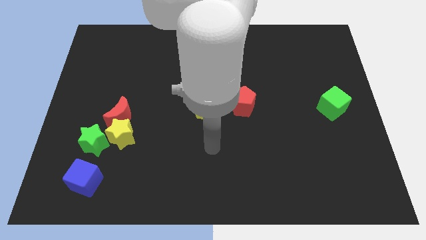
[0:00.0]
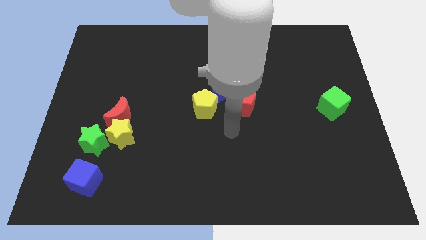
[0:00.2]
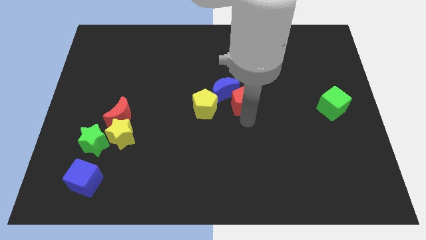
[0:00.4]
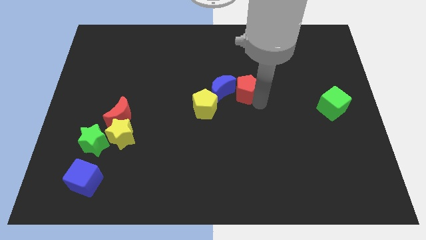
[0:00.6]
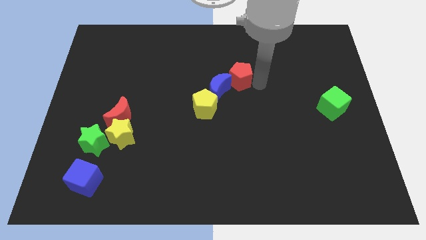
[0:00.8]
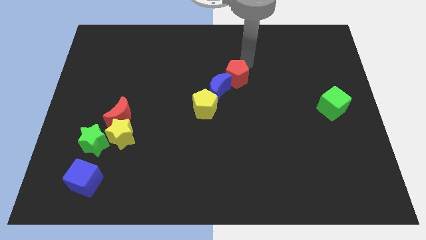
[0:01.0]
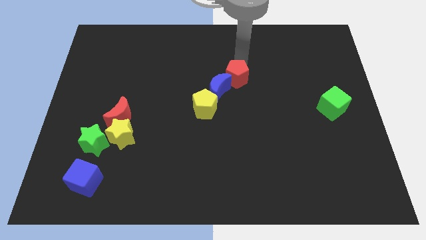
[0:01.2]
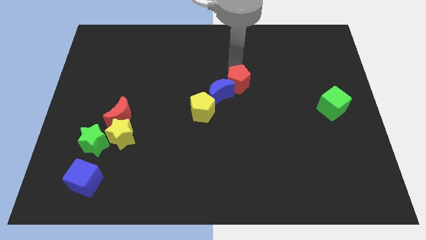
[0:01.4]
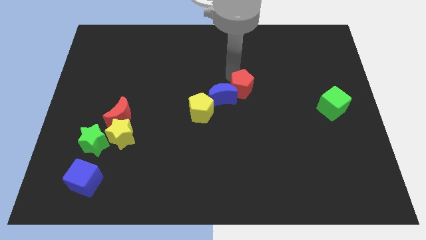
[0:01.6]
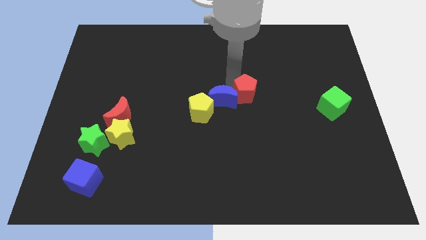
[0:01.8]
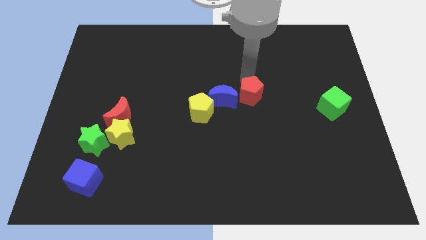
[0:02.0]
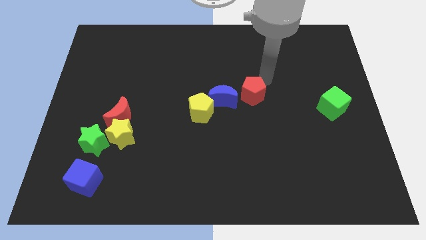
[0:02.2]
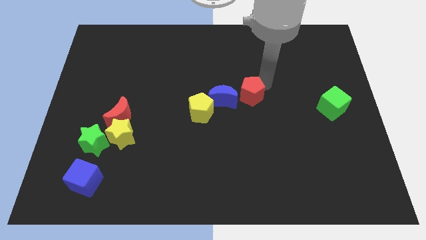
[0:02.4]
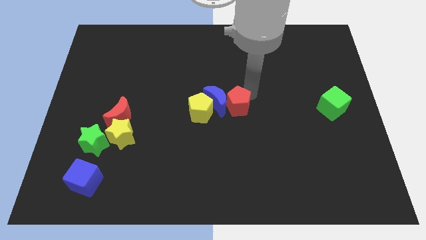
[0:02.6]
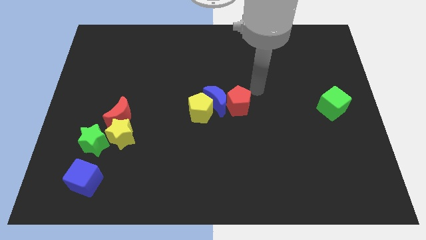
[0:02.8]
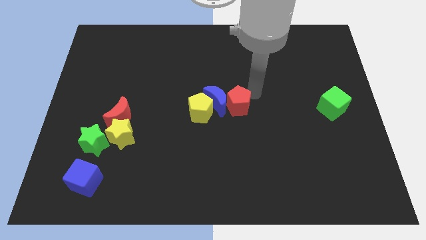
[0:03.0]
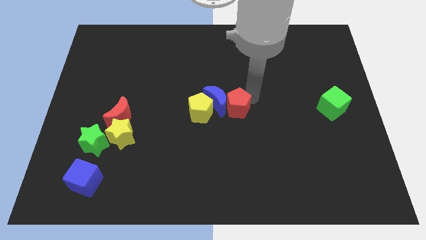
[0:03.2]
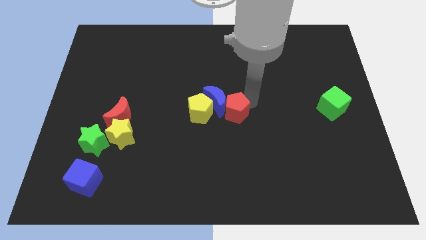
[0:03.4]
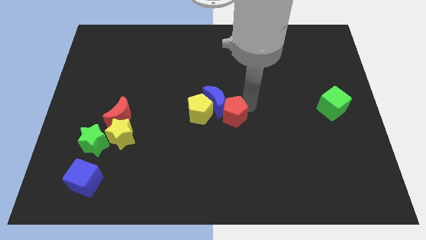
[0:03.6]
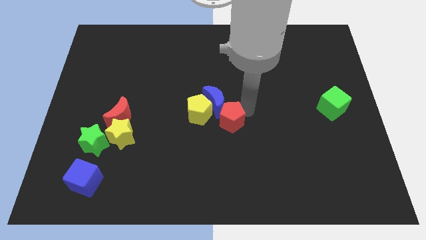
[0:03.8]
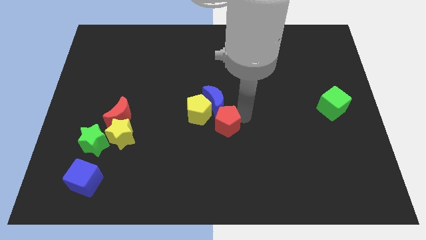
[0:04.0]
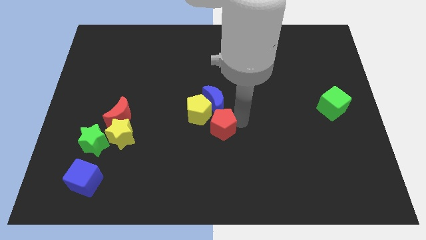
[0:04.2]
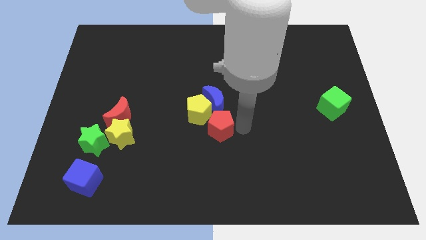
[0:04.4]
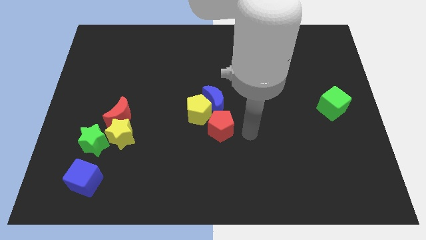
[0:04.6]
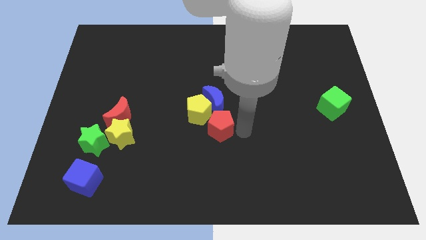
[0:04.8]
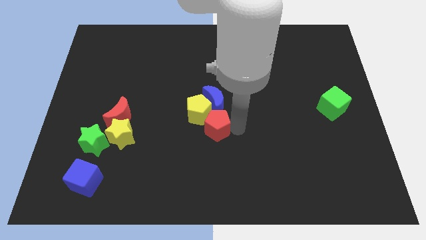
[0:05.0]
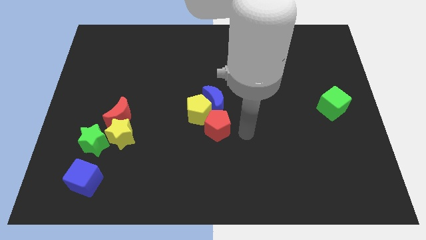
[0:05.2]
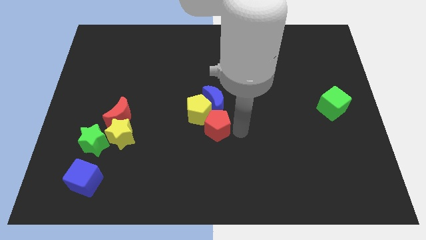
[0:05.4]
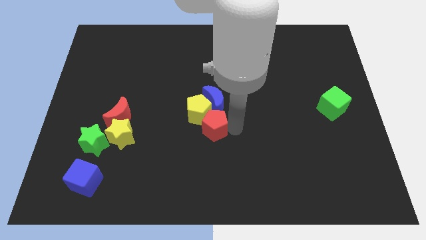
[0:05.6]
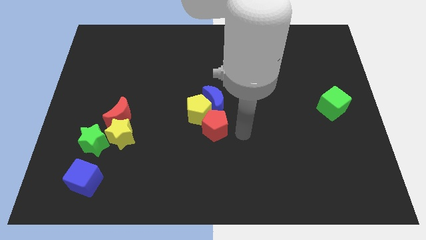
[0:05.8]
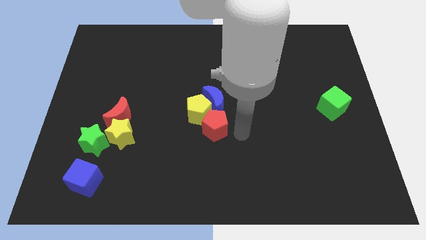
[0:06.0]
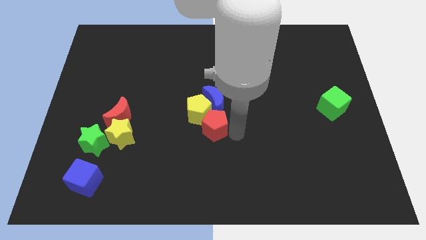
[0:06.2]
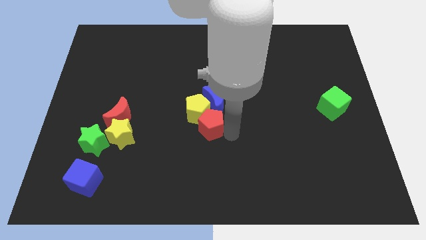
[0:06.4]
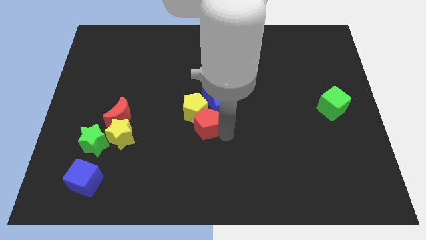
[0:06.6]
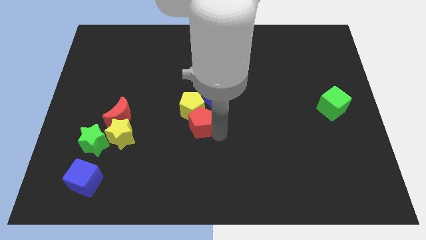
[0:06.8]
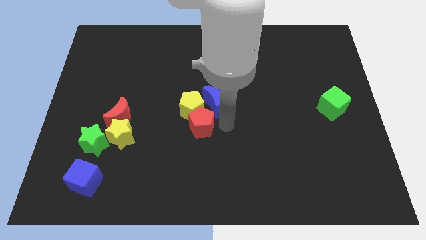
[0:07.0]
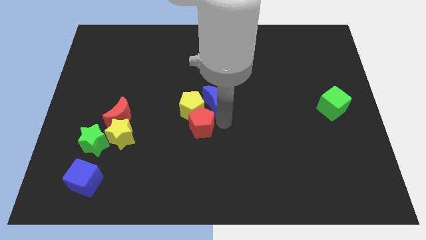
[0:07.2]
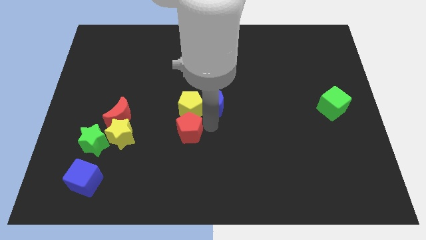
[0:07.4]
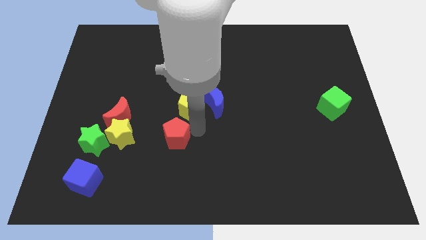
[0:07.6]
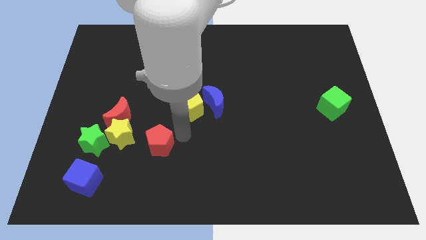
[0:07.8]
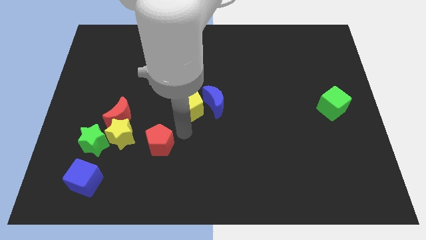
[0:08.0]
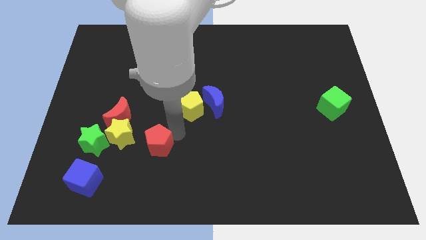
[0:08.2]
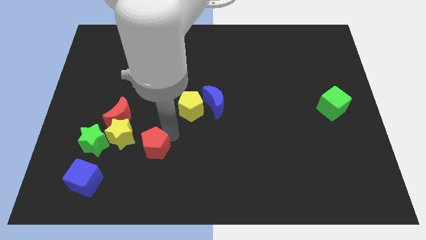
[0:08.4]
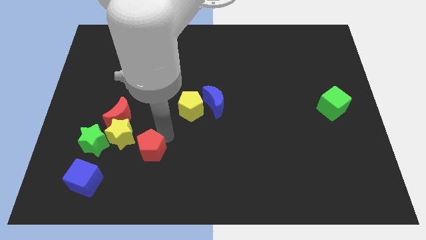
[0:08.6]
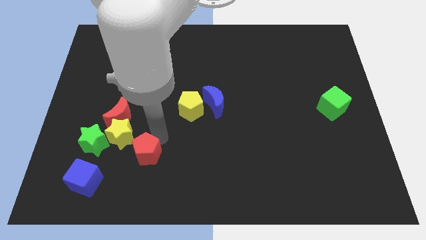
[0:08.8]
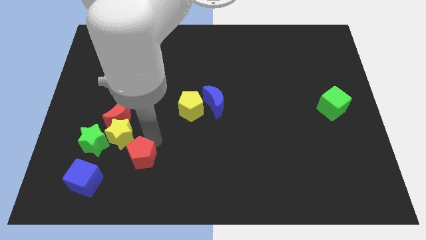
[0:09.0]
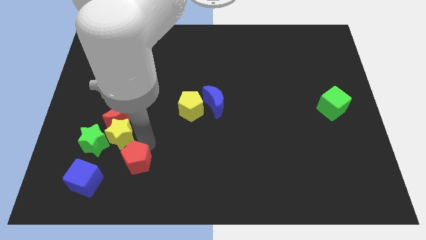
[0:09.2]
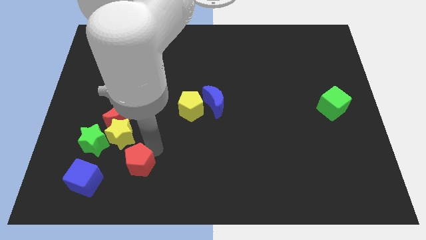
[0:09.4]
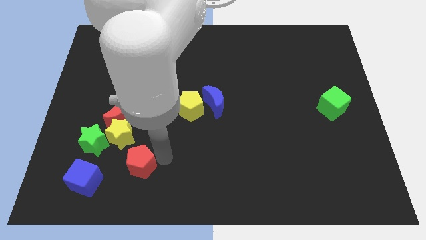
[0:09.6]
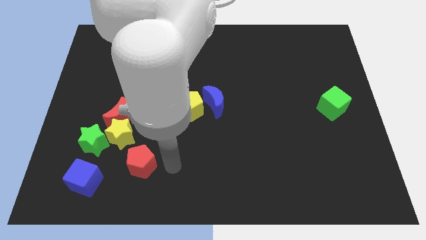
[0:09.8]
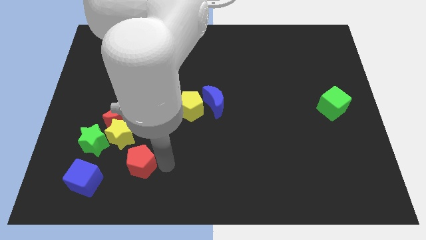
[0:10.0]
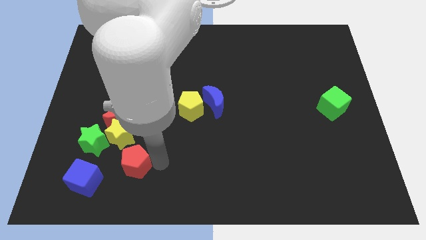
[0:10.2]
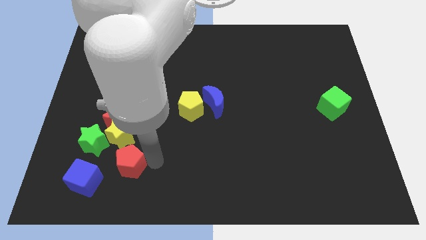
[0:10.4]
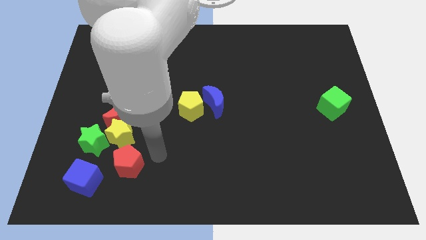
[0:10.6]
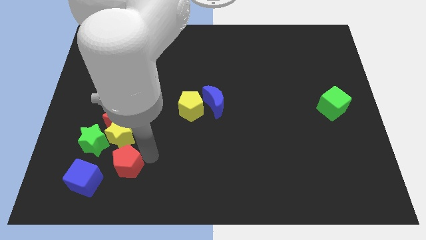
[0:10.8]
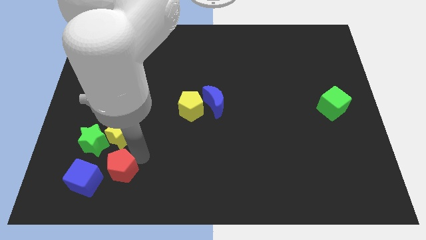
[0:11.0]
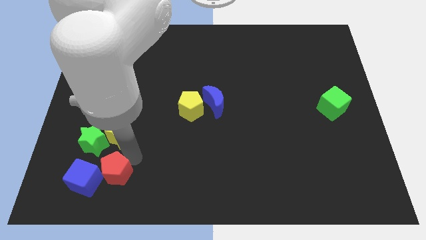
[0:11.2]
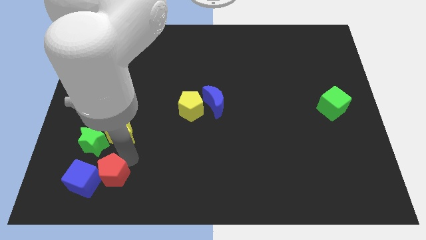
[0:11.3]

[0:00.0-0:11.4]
put the red pentagon towards the blue cube
